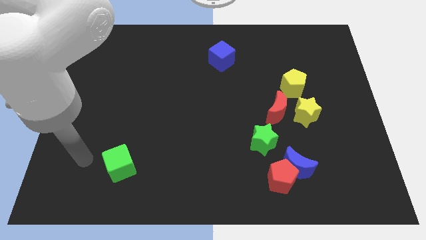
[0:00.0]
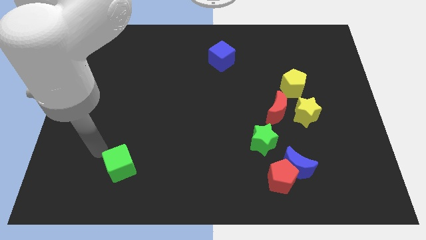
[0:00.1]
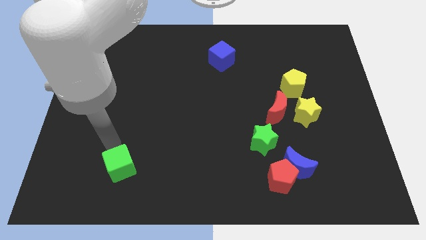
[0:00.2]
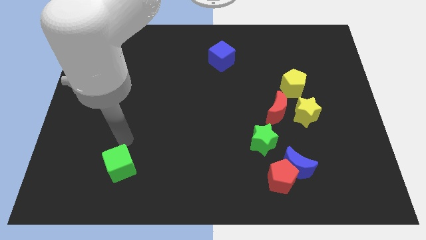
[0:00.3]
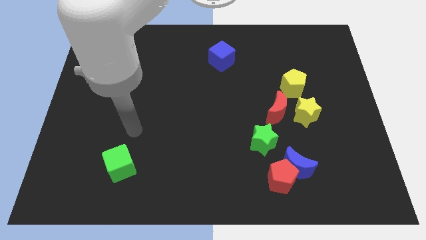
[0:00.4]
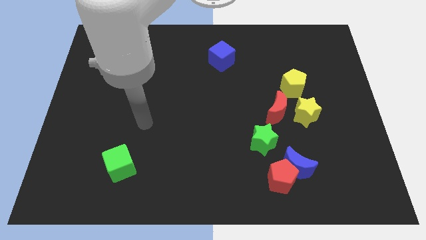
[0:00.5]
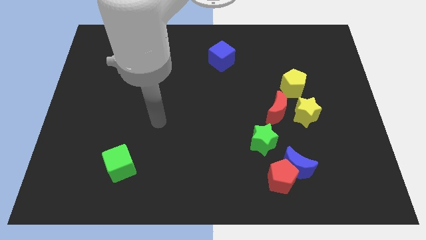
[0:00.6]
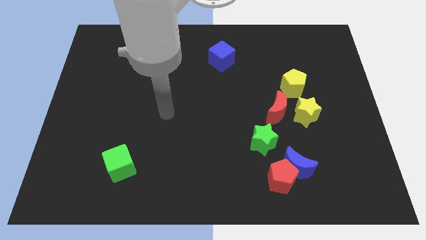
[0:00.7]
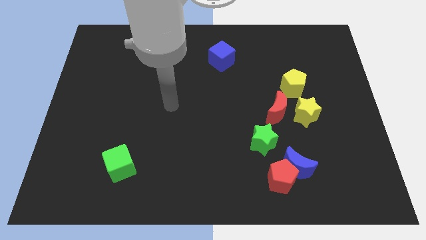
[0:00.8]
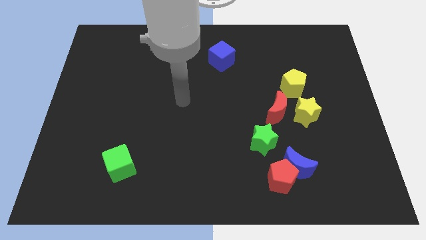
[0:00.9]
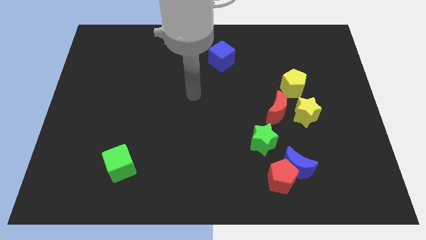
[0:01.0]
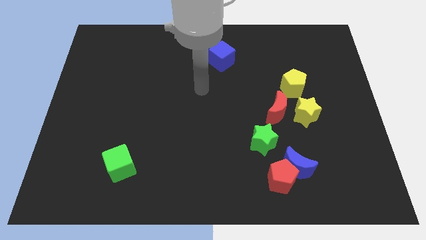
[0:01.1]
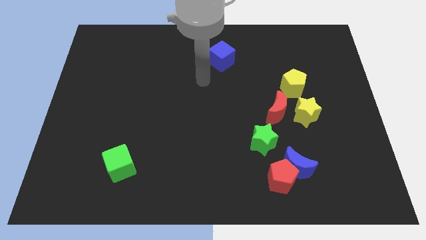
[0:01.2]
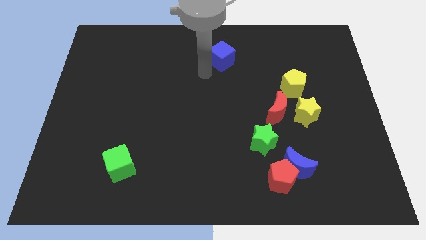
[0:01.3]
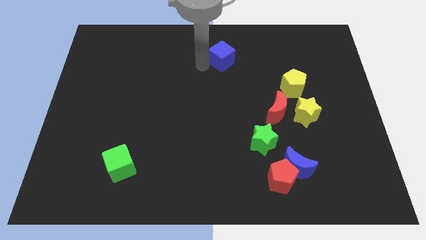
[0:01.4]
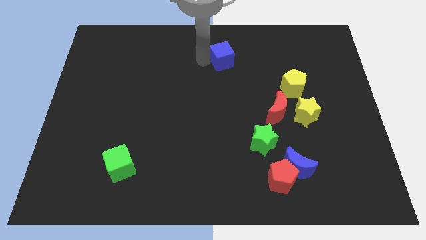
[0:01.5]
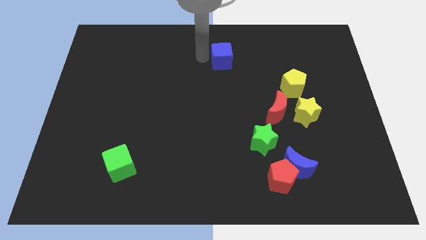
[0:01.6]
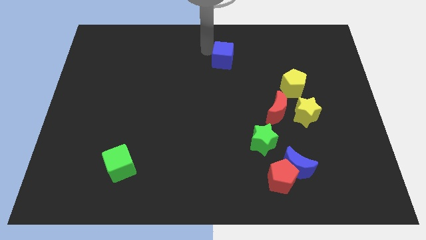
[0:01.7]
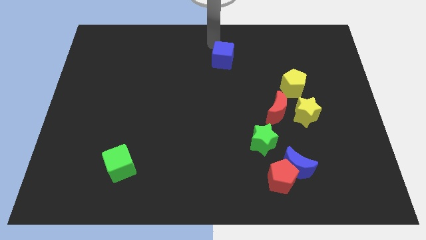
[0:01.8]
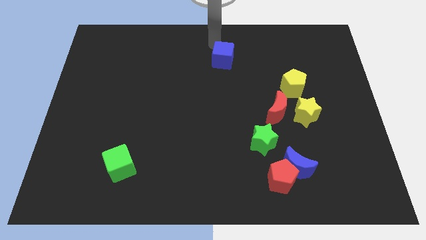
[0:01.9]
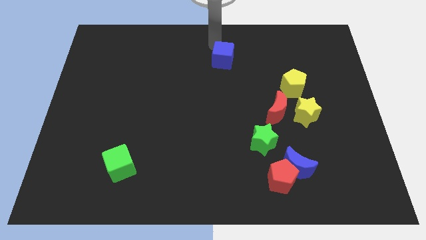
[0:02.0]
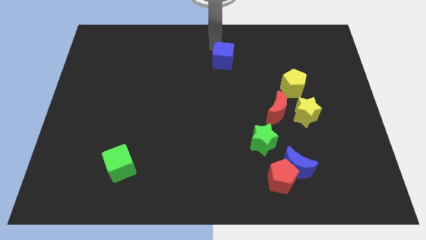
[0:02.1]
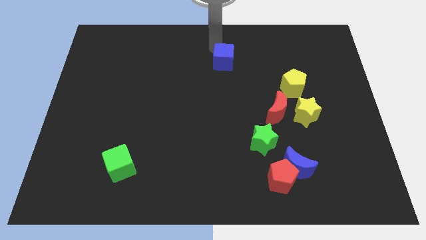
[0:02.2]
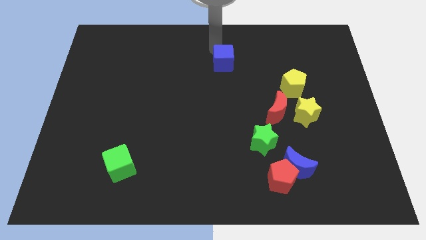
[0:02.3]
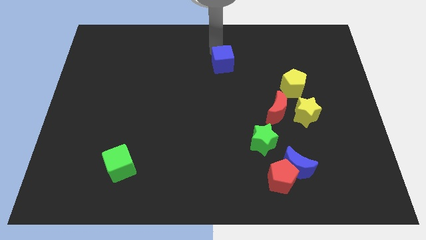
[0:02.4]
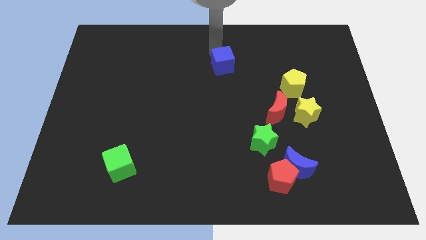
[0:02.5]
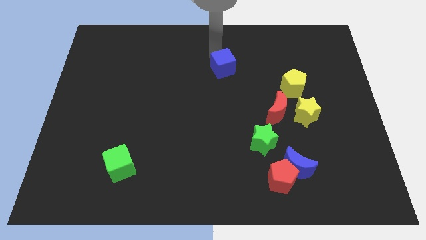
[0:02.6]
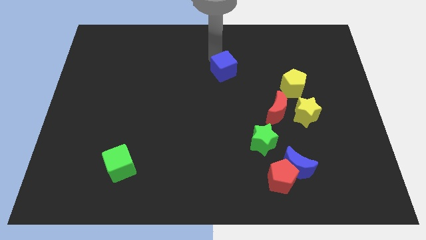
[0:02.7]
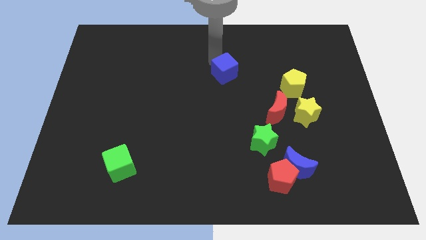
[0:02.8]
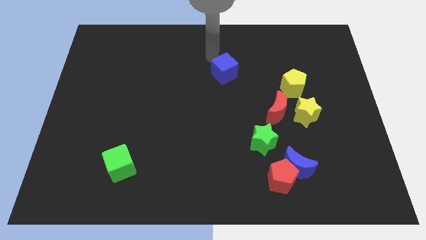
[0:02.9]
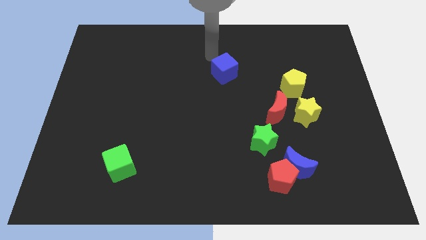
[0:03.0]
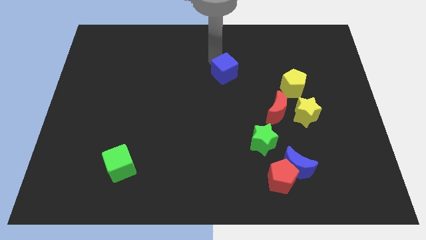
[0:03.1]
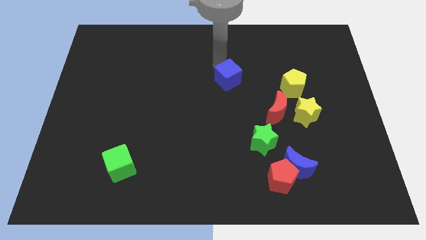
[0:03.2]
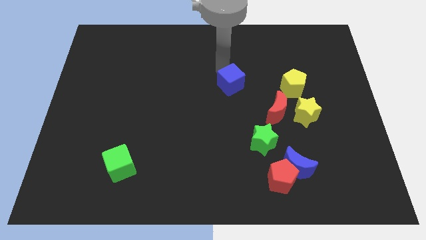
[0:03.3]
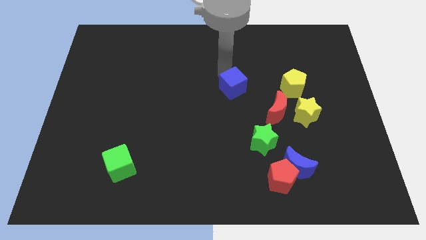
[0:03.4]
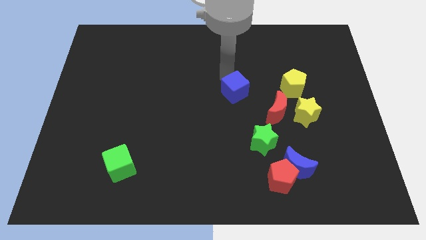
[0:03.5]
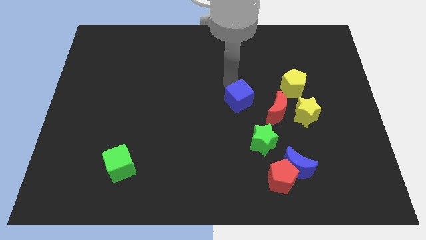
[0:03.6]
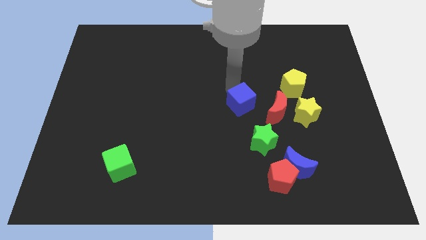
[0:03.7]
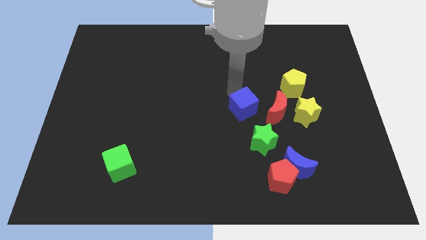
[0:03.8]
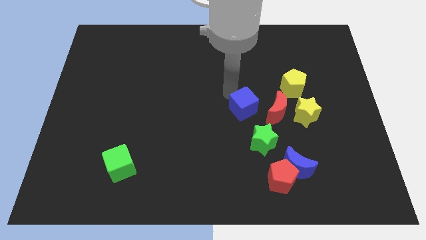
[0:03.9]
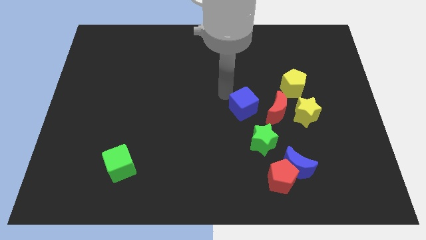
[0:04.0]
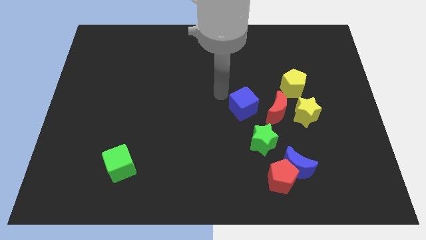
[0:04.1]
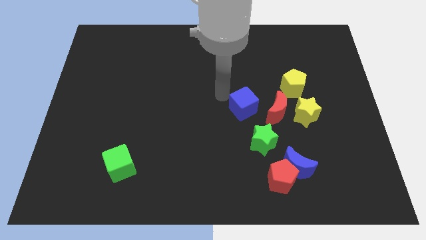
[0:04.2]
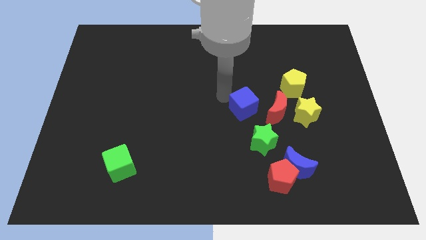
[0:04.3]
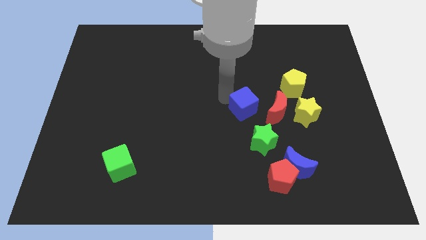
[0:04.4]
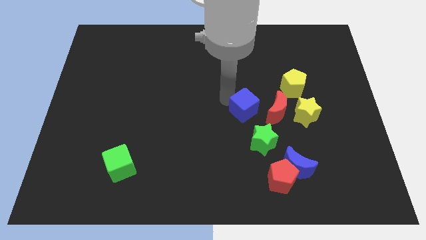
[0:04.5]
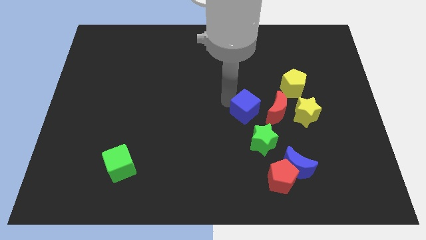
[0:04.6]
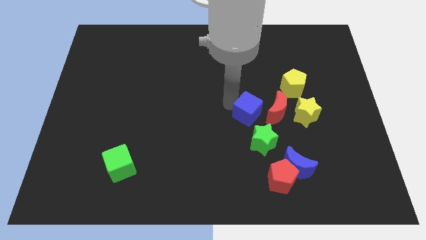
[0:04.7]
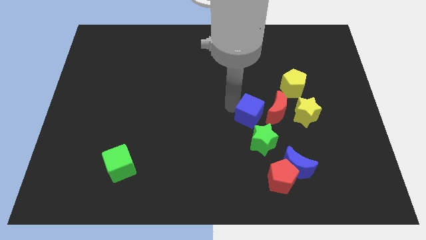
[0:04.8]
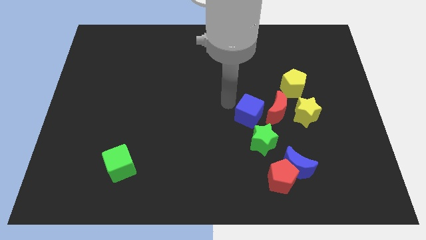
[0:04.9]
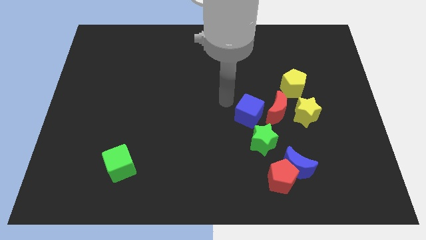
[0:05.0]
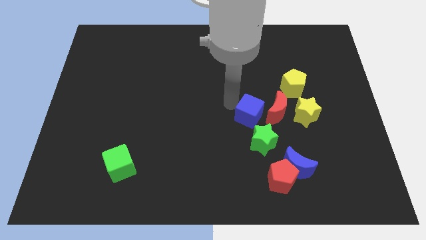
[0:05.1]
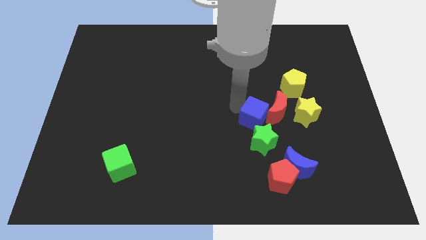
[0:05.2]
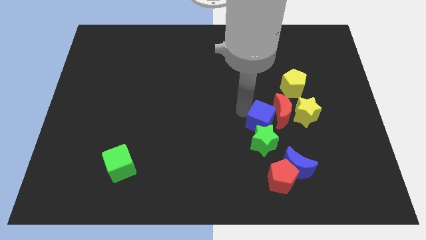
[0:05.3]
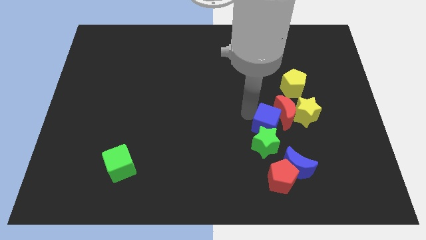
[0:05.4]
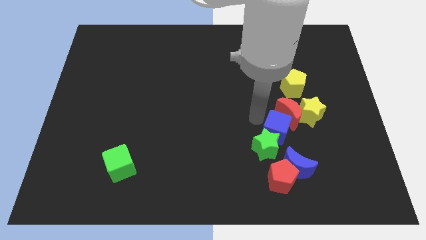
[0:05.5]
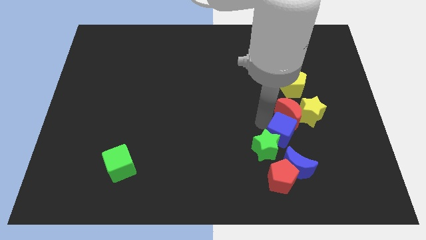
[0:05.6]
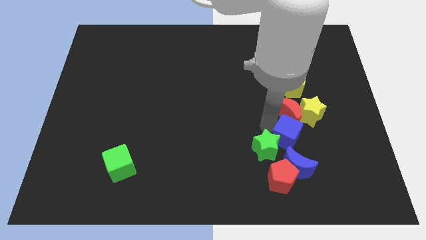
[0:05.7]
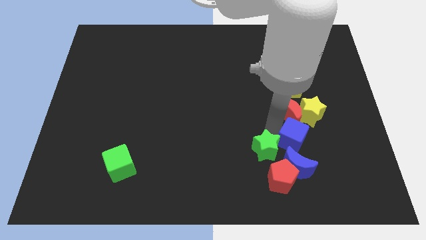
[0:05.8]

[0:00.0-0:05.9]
push the blue cube to the bottom of the yellow star

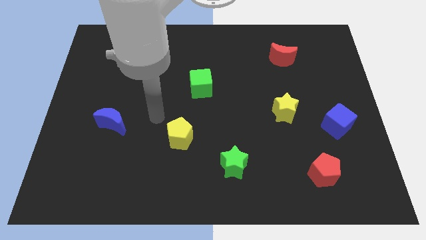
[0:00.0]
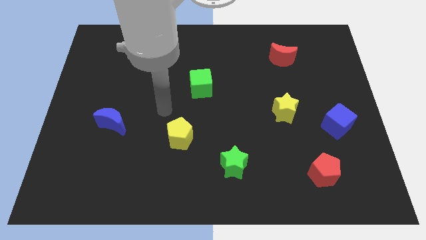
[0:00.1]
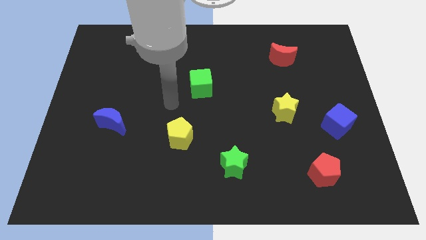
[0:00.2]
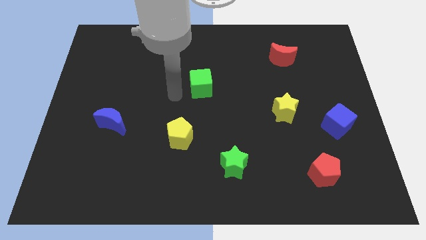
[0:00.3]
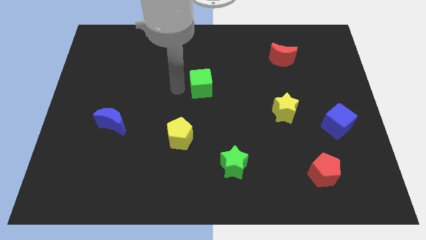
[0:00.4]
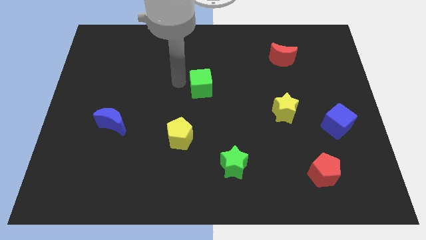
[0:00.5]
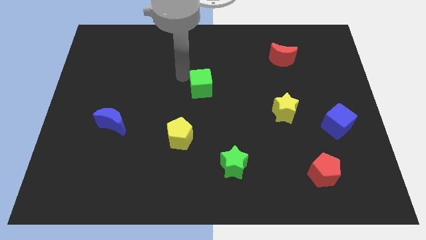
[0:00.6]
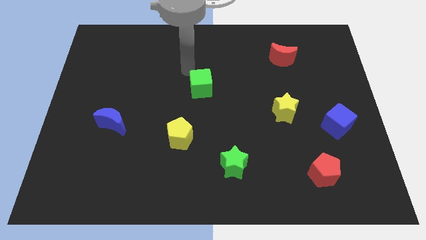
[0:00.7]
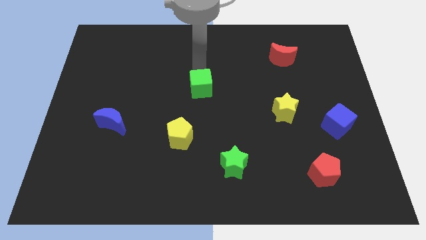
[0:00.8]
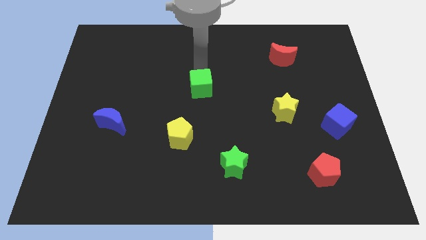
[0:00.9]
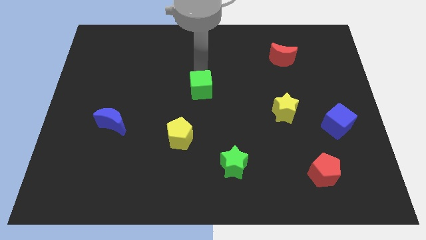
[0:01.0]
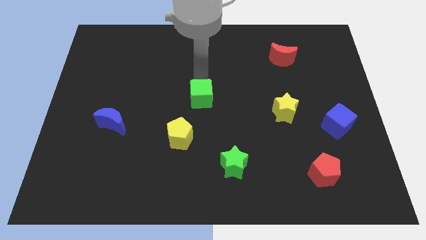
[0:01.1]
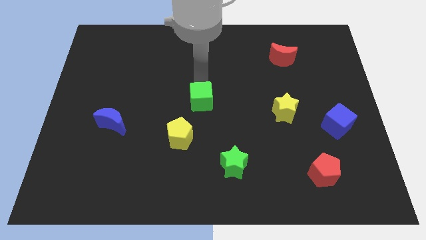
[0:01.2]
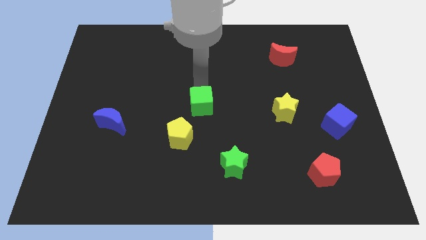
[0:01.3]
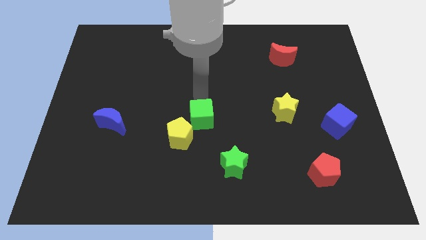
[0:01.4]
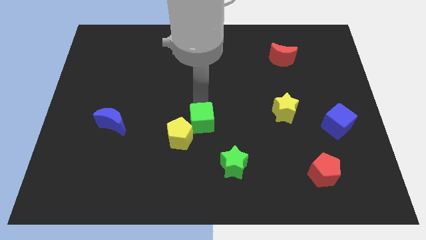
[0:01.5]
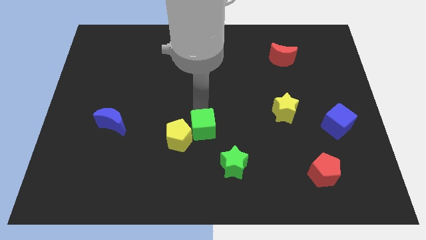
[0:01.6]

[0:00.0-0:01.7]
slide the green cube diagonally up and to the left of the green star

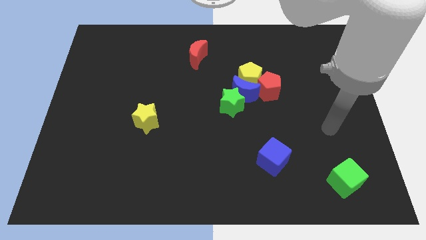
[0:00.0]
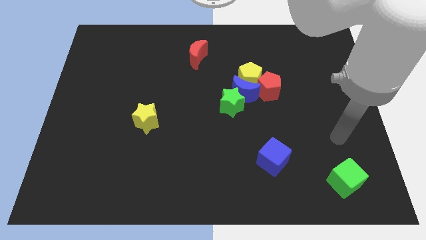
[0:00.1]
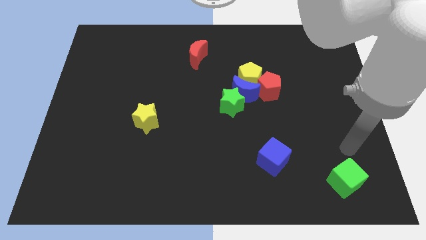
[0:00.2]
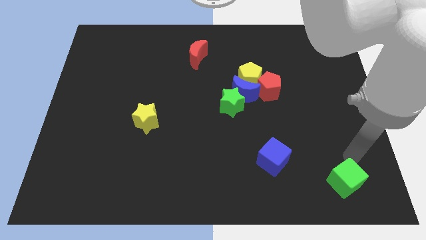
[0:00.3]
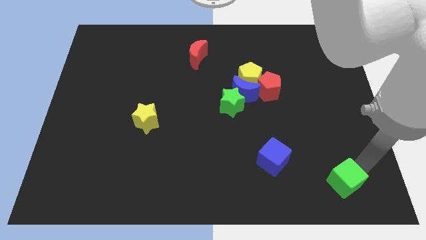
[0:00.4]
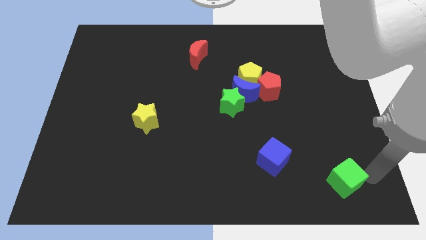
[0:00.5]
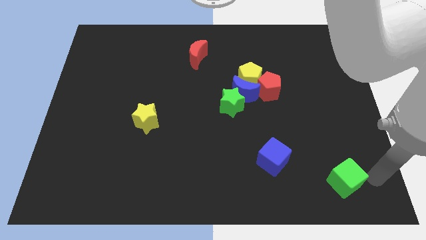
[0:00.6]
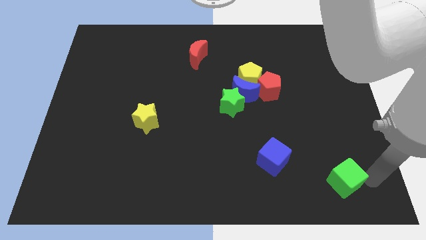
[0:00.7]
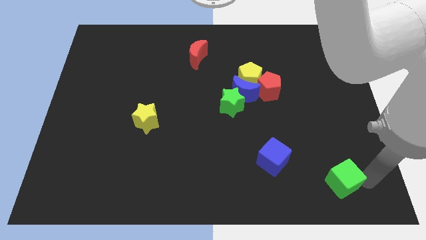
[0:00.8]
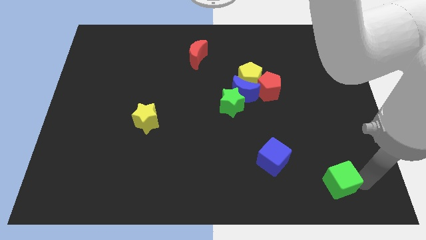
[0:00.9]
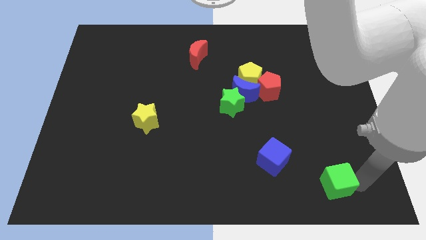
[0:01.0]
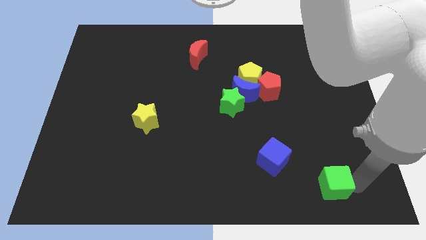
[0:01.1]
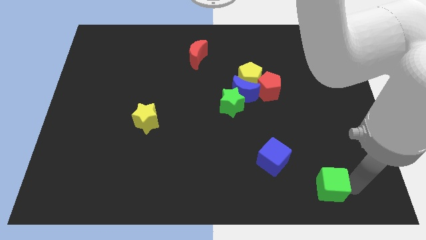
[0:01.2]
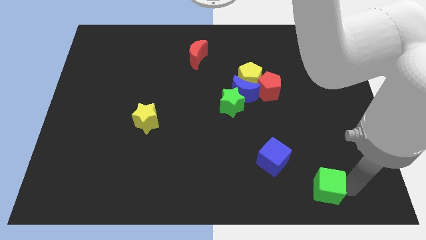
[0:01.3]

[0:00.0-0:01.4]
put the green cube diagonally down and to the right of the blue cube
